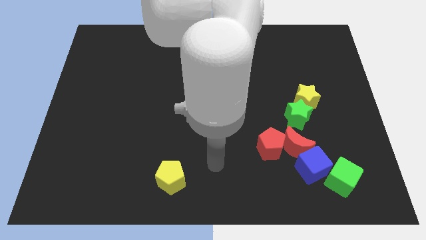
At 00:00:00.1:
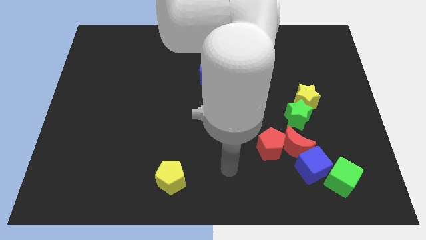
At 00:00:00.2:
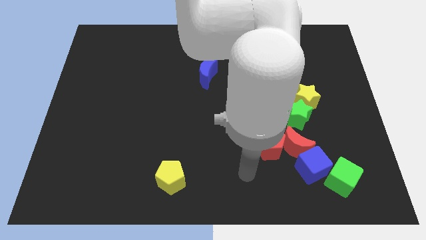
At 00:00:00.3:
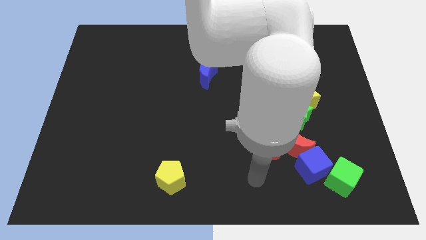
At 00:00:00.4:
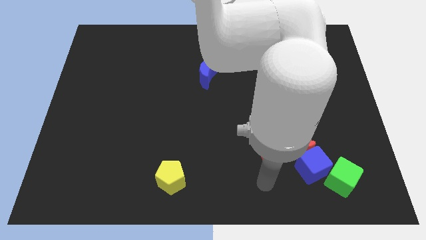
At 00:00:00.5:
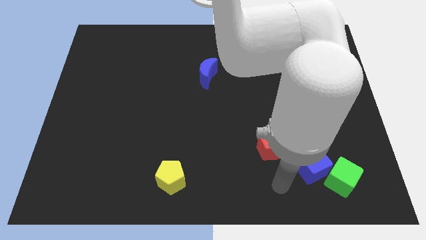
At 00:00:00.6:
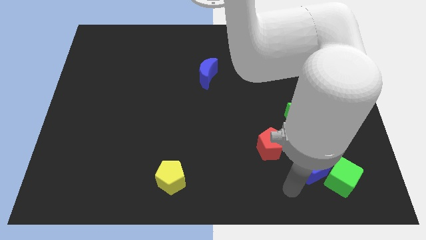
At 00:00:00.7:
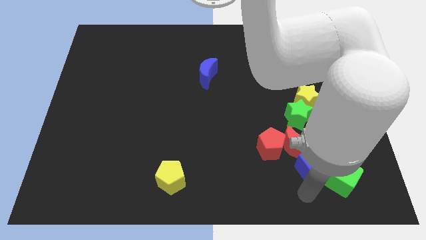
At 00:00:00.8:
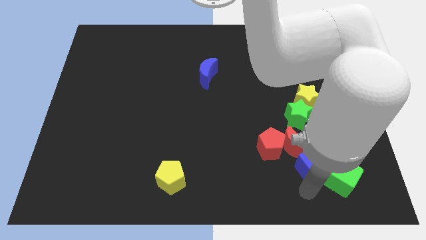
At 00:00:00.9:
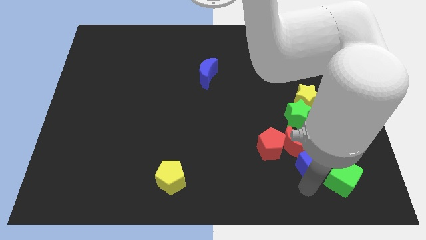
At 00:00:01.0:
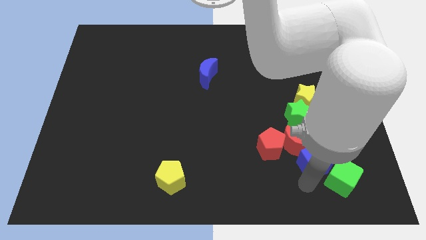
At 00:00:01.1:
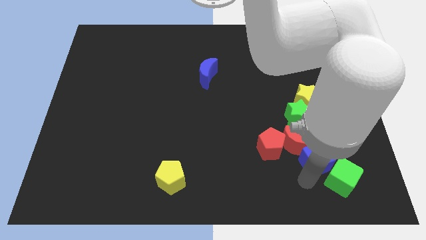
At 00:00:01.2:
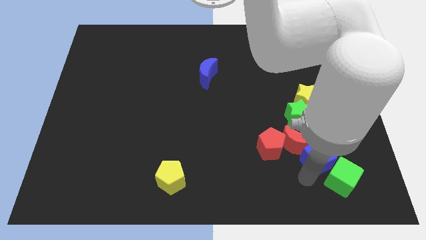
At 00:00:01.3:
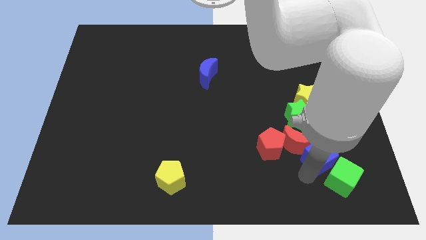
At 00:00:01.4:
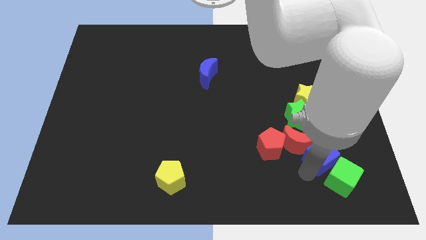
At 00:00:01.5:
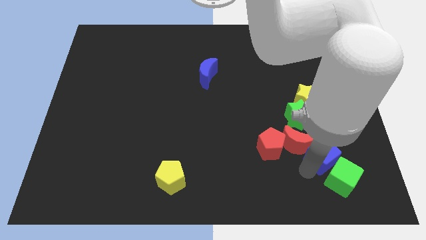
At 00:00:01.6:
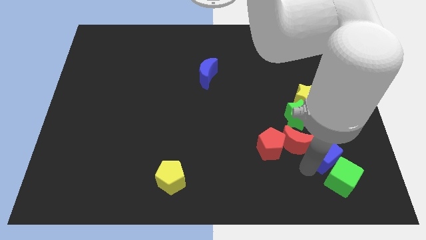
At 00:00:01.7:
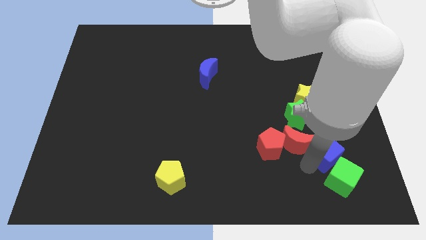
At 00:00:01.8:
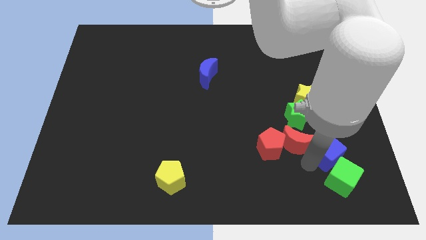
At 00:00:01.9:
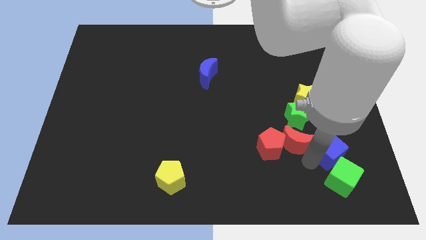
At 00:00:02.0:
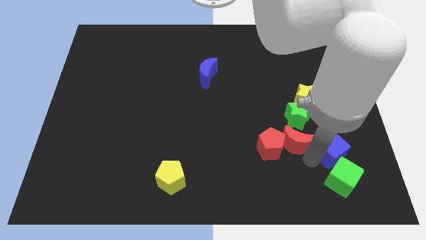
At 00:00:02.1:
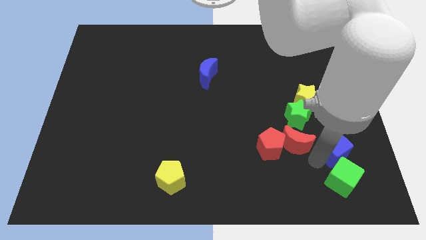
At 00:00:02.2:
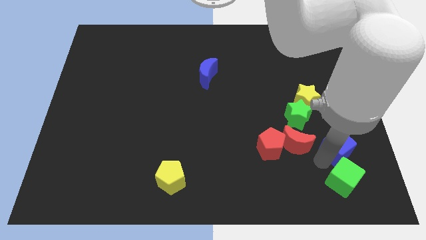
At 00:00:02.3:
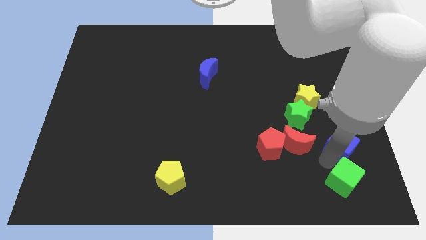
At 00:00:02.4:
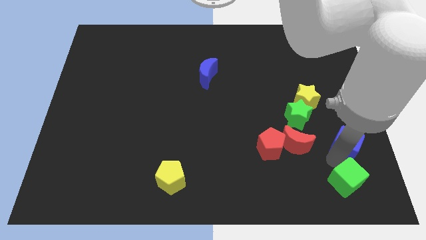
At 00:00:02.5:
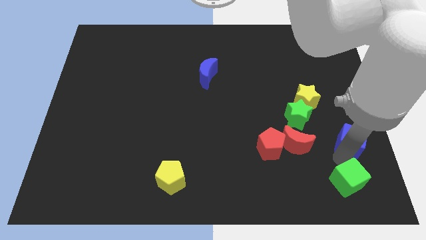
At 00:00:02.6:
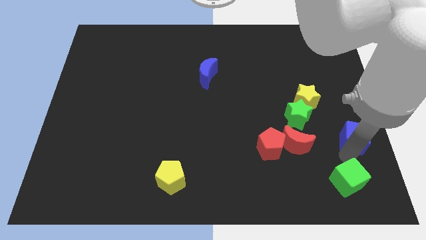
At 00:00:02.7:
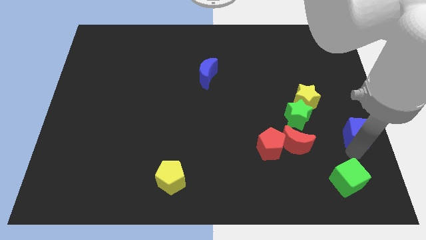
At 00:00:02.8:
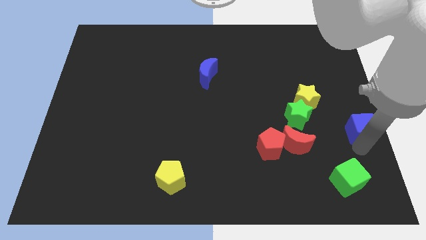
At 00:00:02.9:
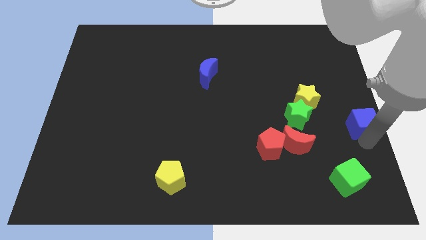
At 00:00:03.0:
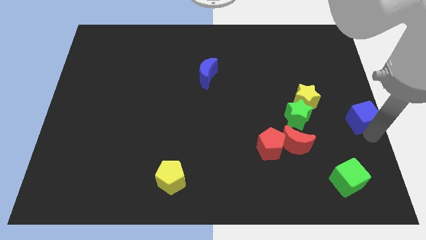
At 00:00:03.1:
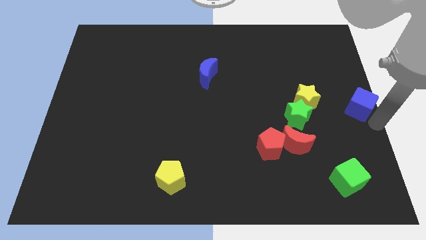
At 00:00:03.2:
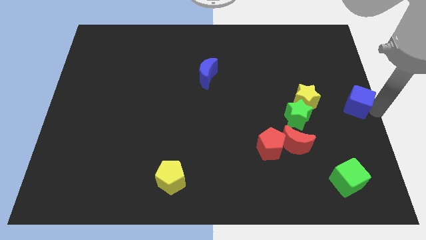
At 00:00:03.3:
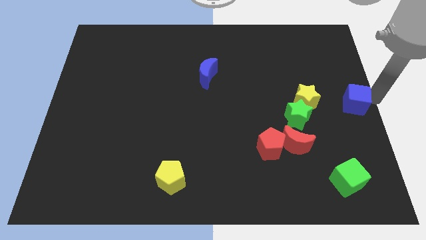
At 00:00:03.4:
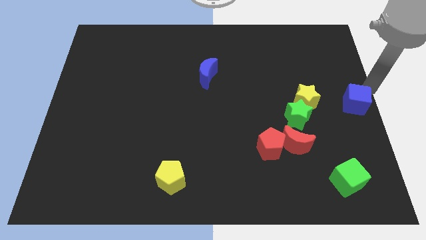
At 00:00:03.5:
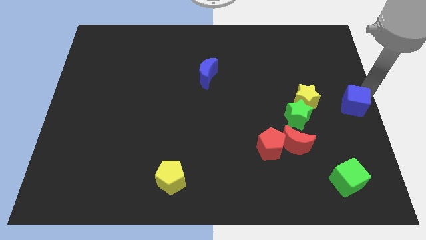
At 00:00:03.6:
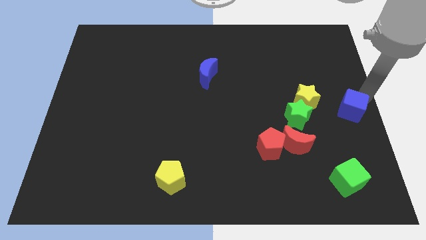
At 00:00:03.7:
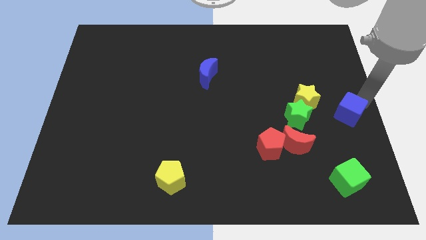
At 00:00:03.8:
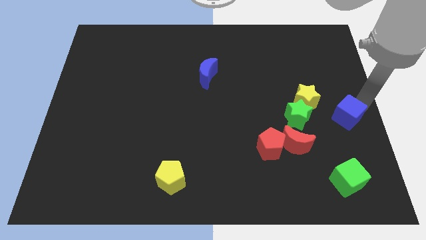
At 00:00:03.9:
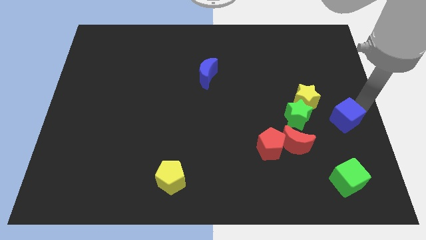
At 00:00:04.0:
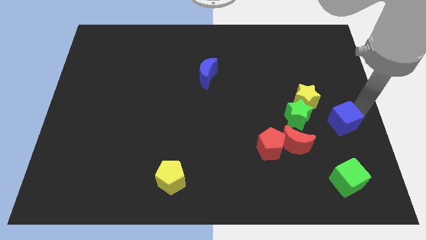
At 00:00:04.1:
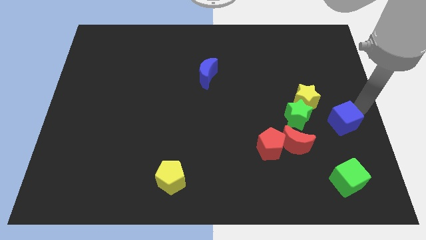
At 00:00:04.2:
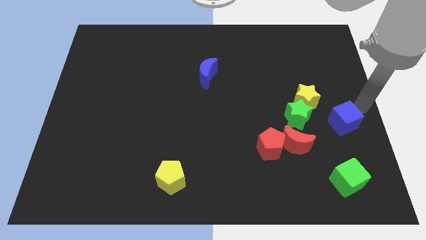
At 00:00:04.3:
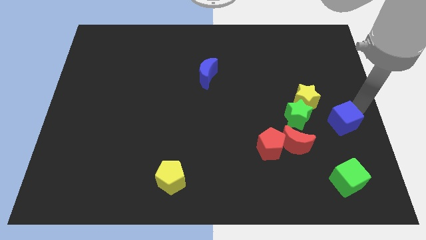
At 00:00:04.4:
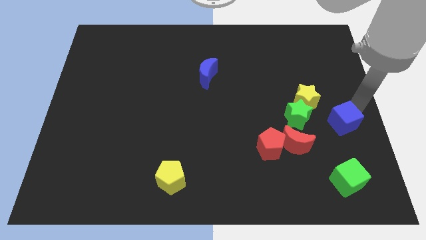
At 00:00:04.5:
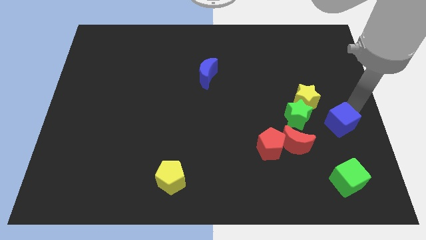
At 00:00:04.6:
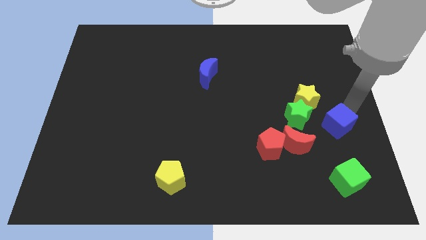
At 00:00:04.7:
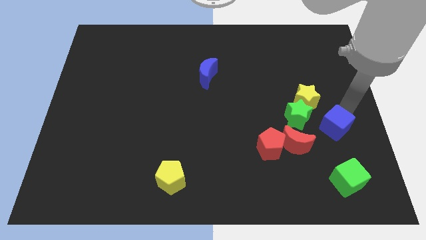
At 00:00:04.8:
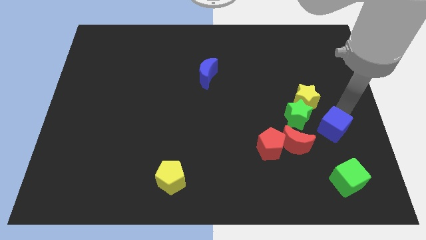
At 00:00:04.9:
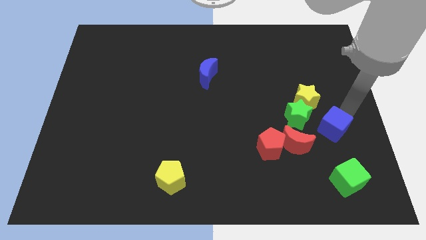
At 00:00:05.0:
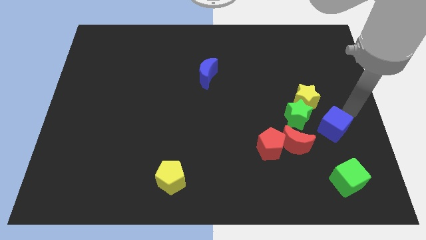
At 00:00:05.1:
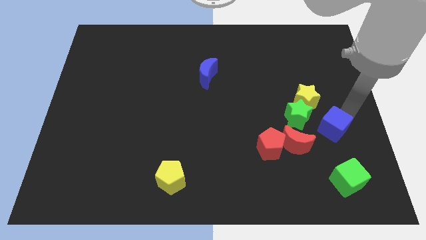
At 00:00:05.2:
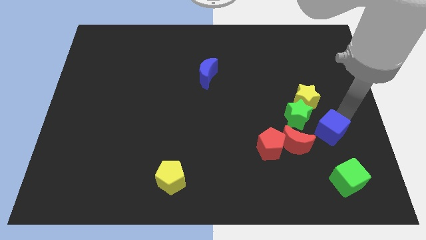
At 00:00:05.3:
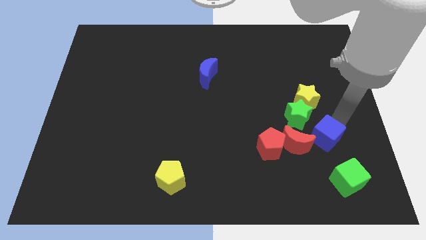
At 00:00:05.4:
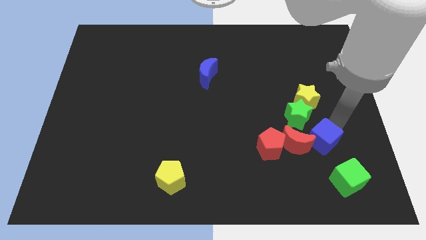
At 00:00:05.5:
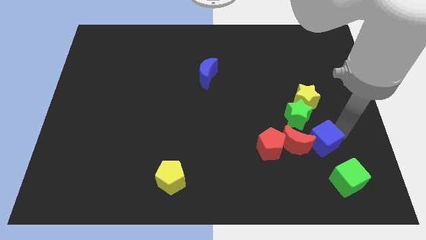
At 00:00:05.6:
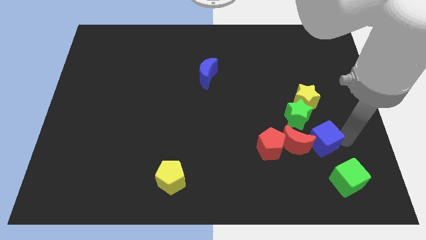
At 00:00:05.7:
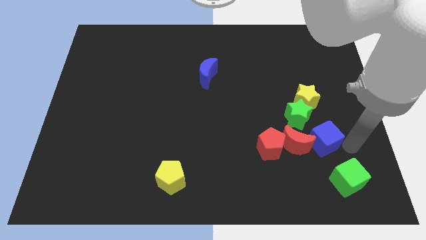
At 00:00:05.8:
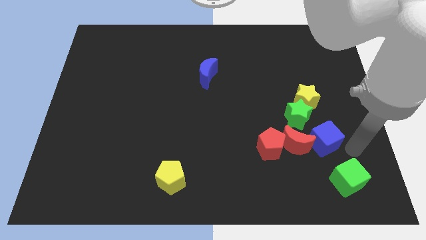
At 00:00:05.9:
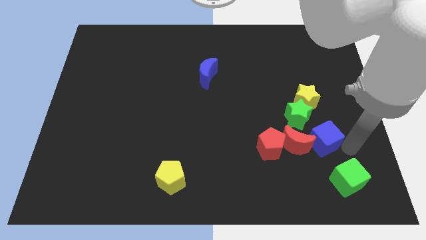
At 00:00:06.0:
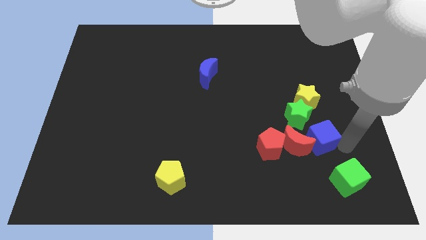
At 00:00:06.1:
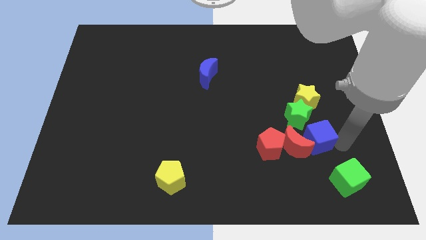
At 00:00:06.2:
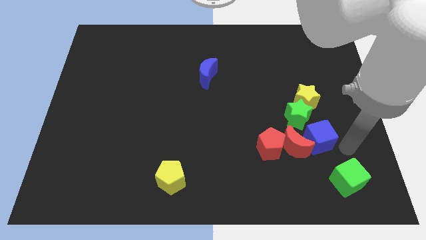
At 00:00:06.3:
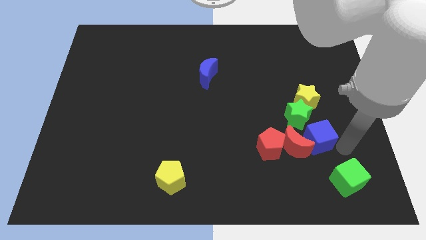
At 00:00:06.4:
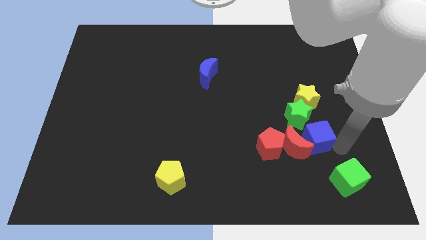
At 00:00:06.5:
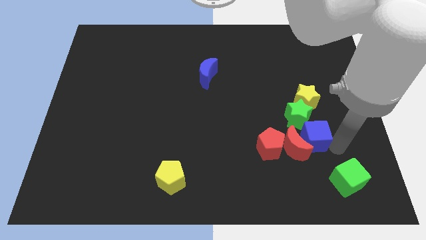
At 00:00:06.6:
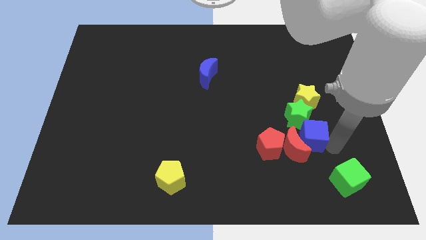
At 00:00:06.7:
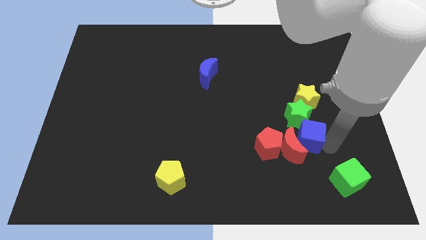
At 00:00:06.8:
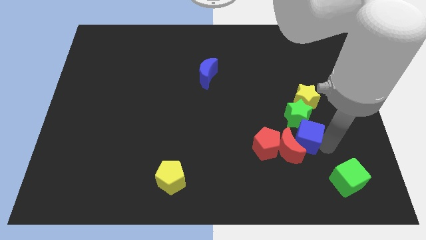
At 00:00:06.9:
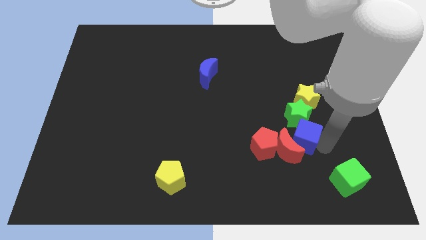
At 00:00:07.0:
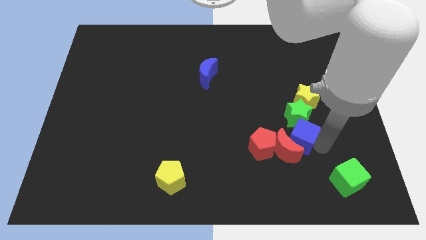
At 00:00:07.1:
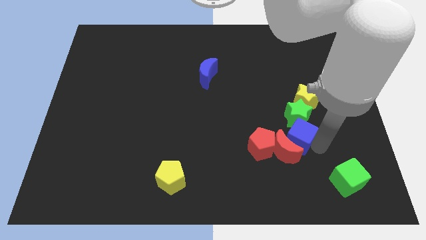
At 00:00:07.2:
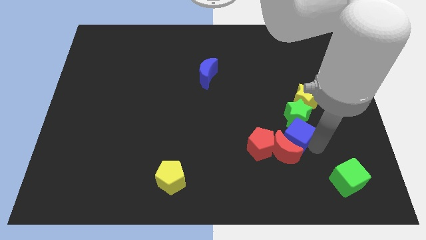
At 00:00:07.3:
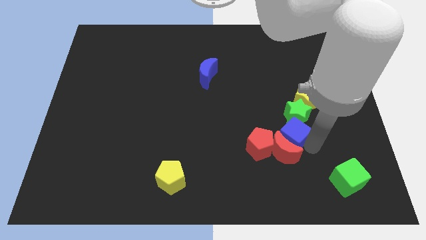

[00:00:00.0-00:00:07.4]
push the blue cube a little bit upwards and then left

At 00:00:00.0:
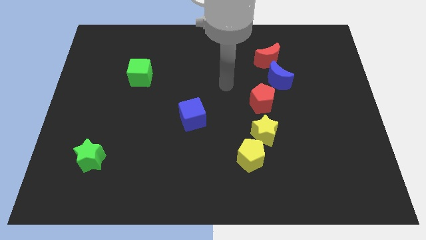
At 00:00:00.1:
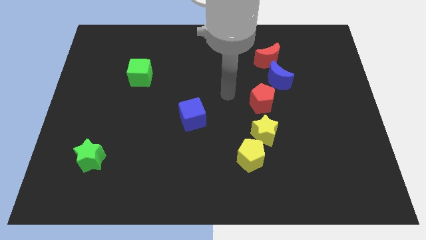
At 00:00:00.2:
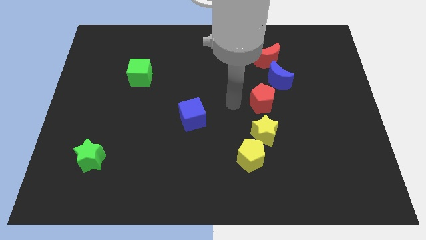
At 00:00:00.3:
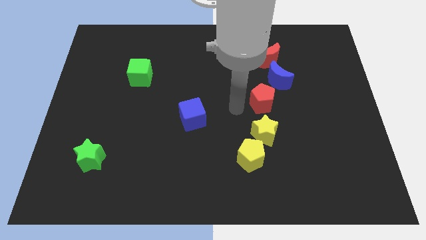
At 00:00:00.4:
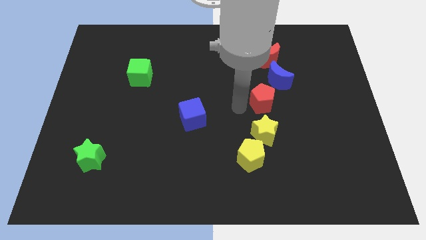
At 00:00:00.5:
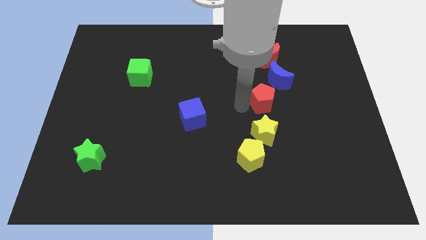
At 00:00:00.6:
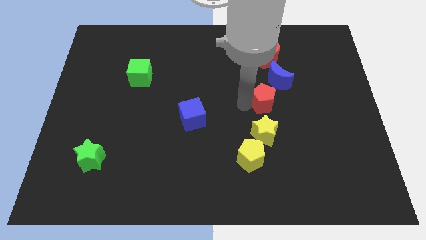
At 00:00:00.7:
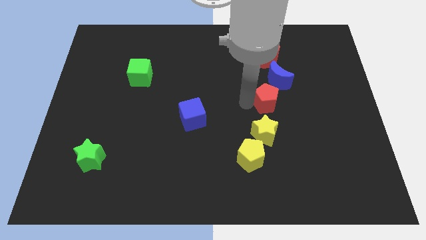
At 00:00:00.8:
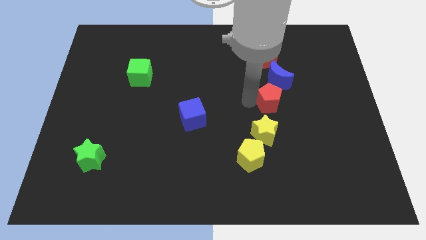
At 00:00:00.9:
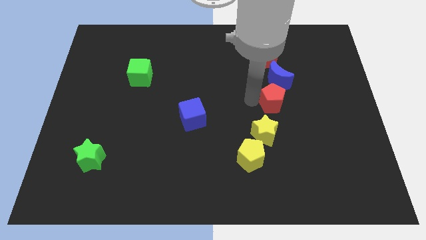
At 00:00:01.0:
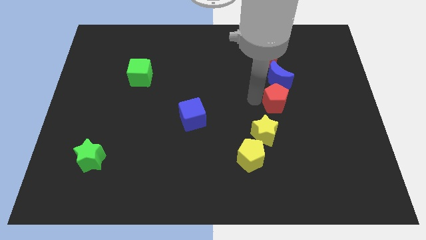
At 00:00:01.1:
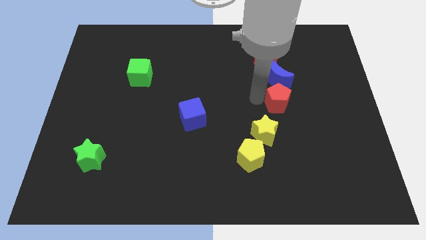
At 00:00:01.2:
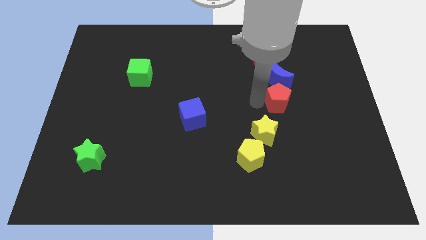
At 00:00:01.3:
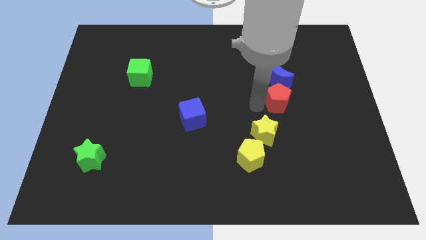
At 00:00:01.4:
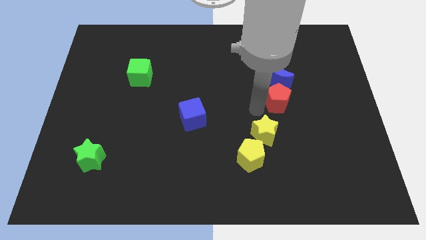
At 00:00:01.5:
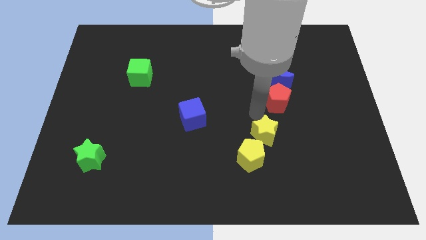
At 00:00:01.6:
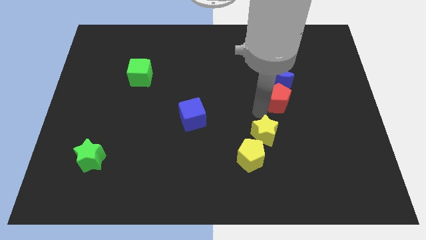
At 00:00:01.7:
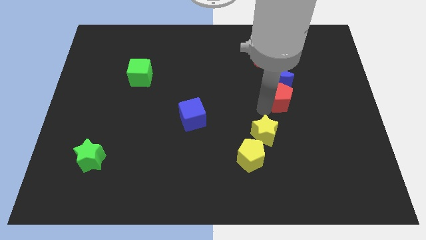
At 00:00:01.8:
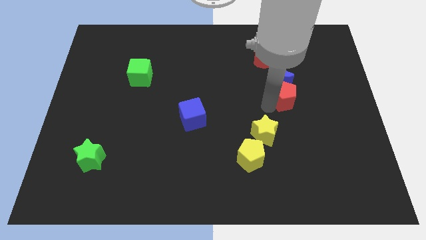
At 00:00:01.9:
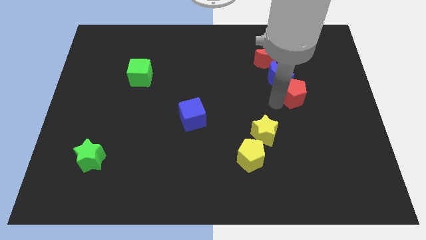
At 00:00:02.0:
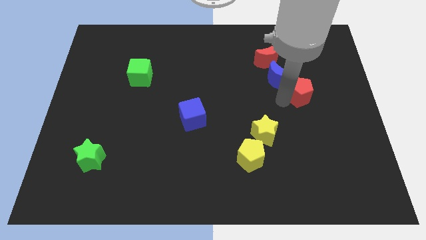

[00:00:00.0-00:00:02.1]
push the red pentagon upwards and to the right a little
